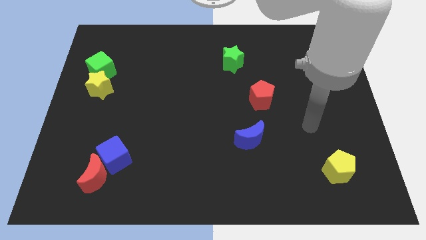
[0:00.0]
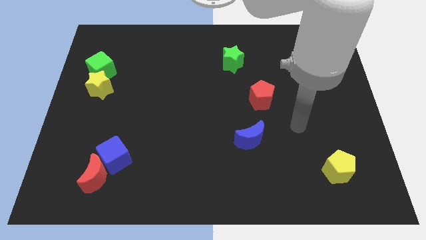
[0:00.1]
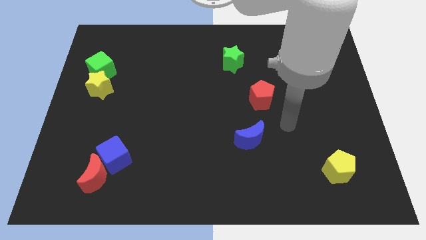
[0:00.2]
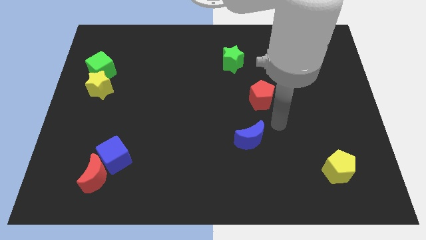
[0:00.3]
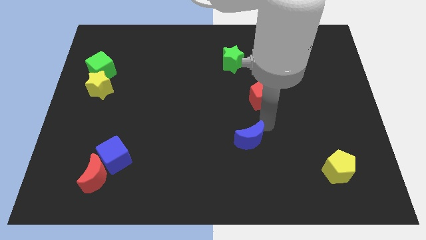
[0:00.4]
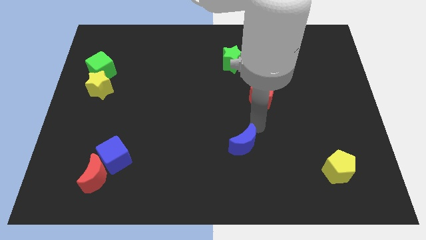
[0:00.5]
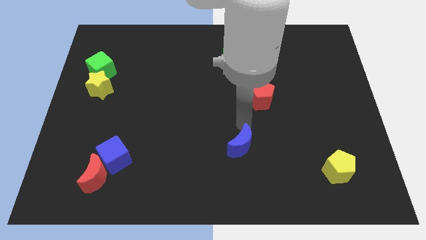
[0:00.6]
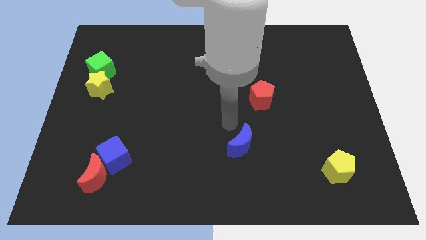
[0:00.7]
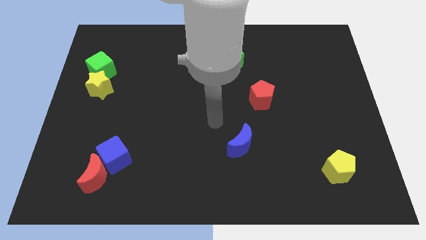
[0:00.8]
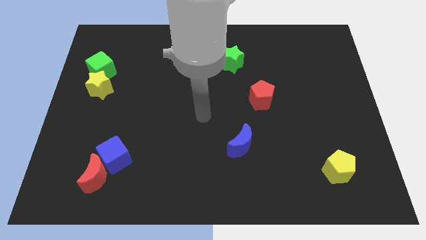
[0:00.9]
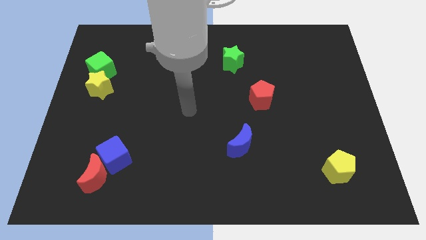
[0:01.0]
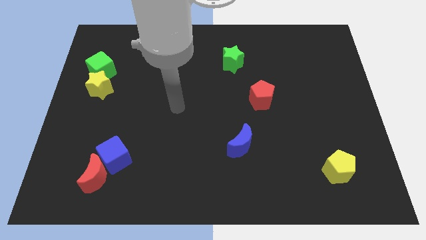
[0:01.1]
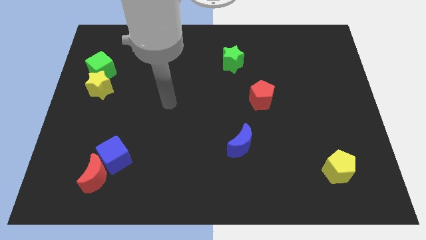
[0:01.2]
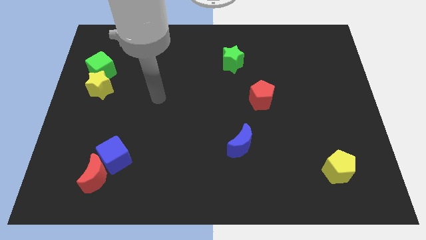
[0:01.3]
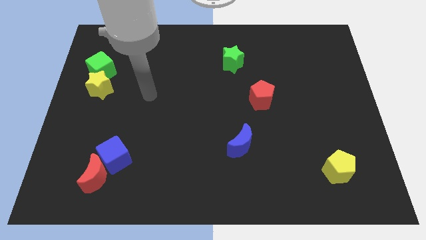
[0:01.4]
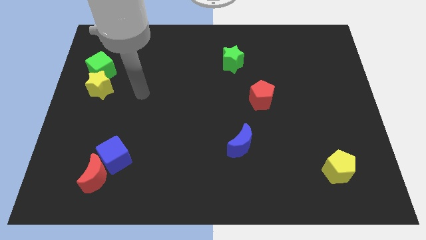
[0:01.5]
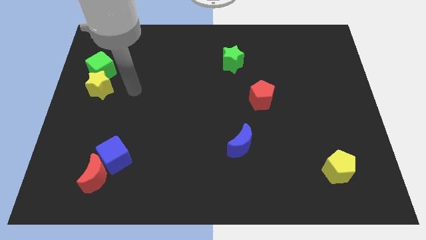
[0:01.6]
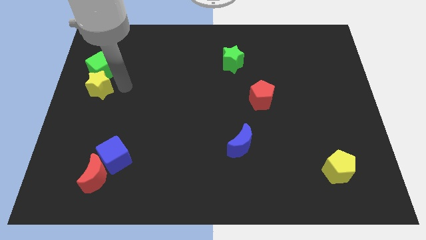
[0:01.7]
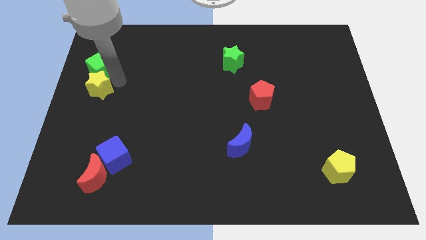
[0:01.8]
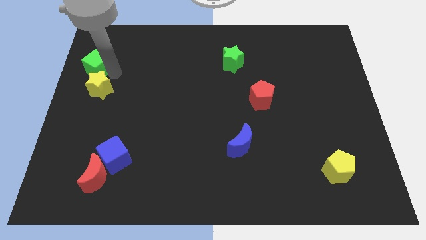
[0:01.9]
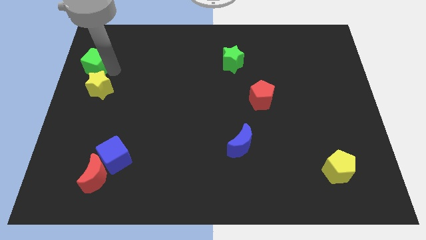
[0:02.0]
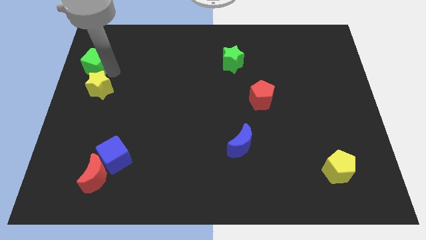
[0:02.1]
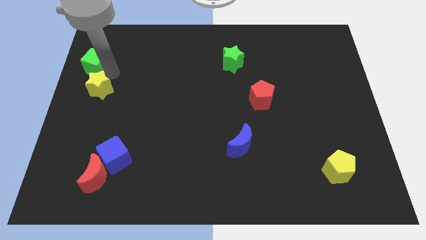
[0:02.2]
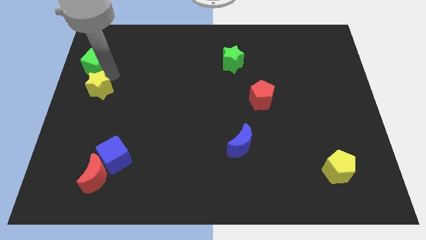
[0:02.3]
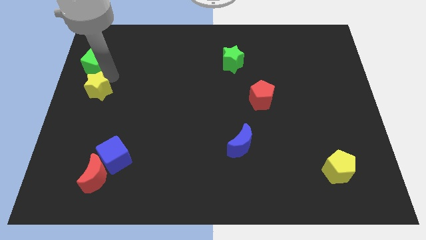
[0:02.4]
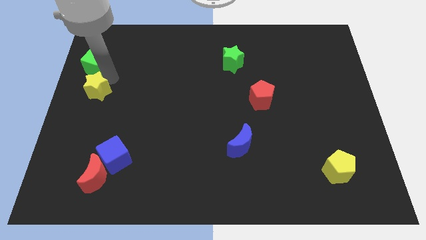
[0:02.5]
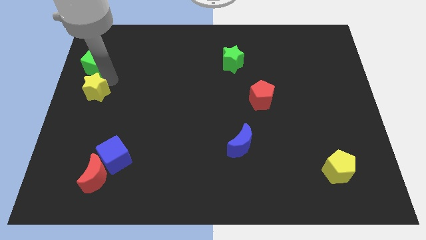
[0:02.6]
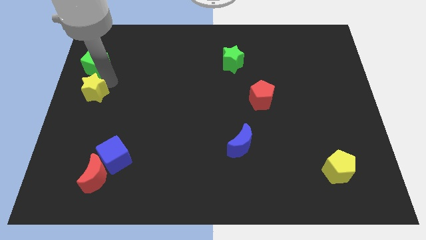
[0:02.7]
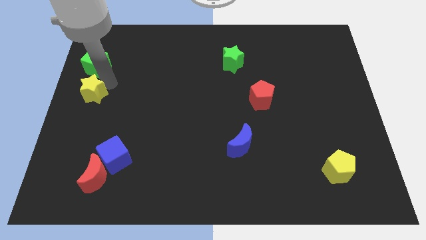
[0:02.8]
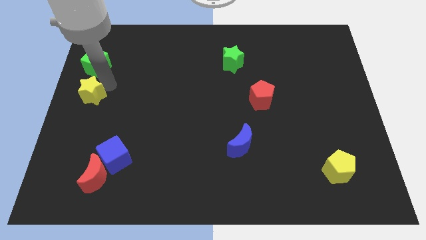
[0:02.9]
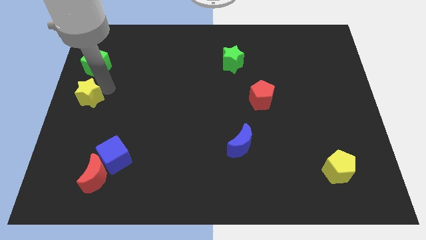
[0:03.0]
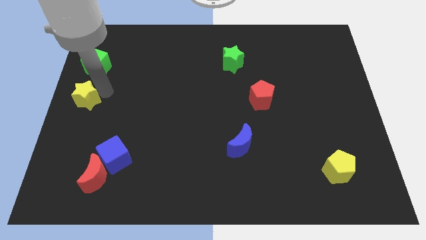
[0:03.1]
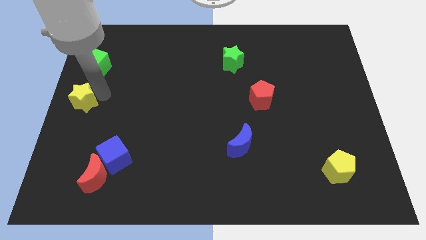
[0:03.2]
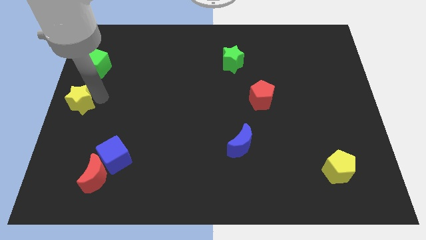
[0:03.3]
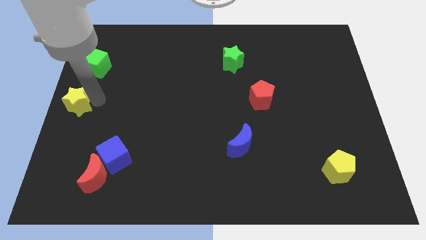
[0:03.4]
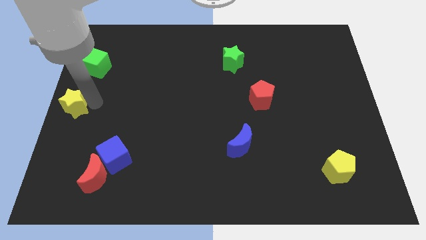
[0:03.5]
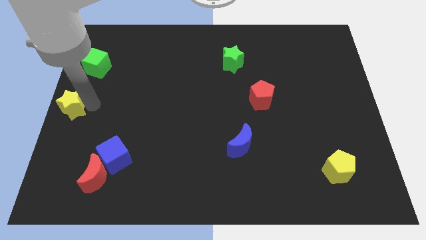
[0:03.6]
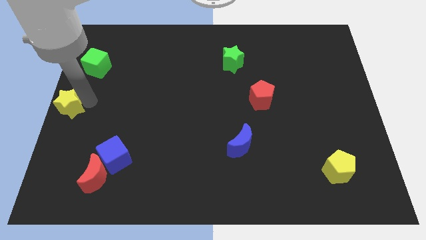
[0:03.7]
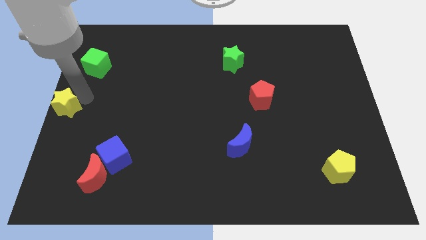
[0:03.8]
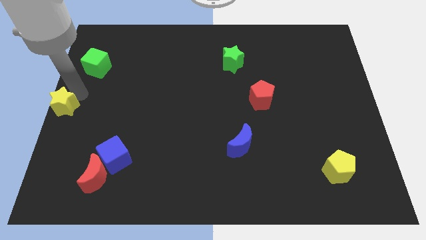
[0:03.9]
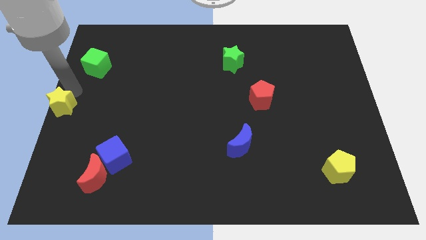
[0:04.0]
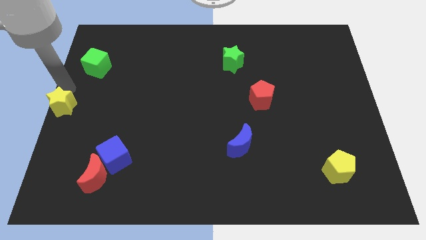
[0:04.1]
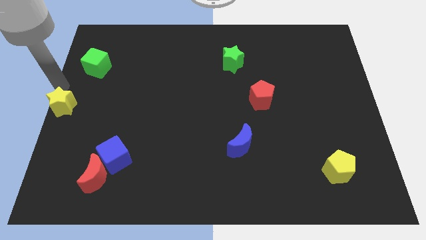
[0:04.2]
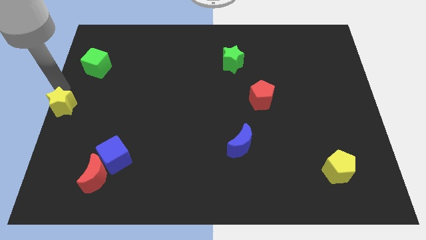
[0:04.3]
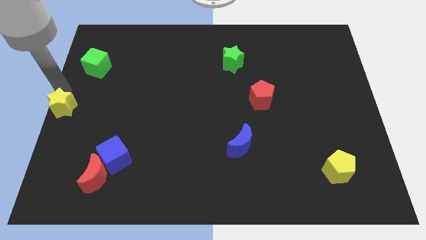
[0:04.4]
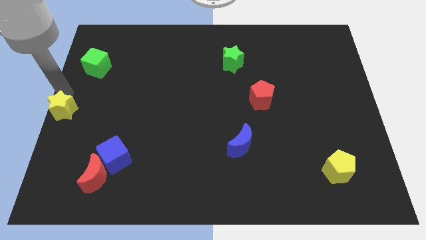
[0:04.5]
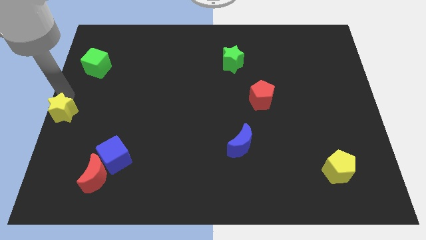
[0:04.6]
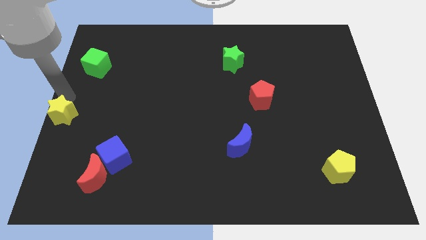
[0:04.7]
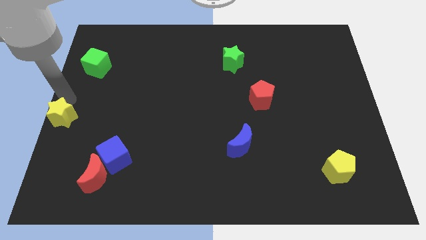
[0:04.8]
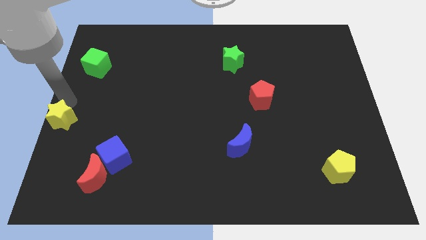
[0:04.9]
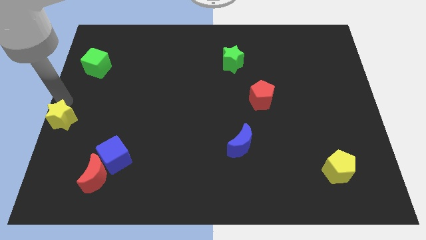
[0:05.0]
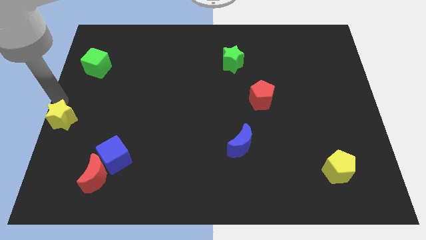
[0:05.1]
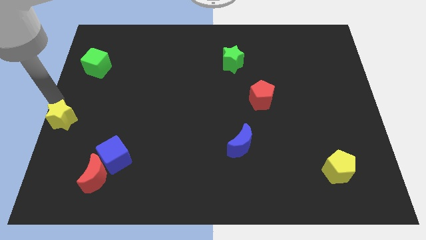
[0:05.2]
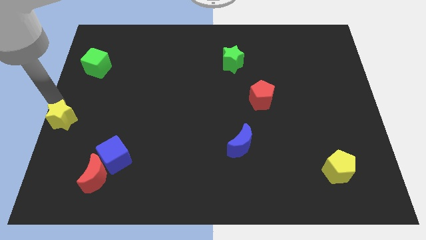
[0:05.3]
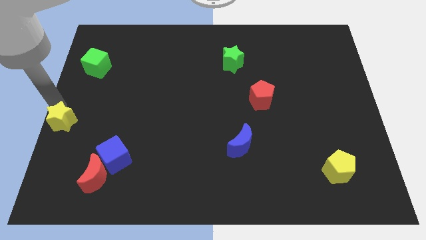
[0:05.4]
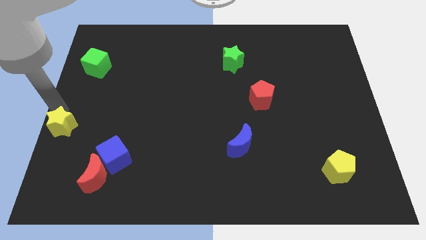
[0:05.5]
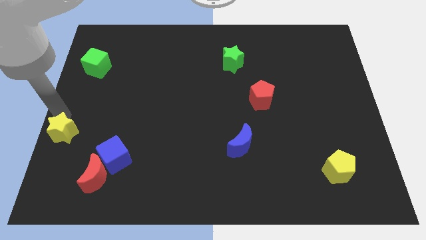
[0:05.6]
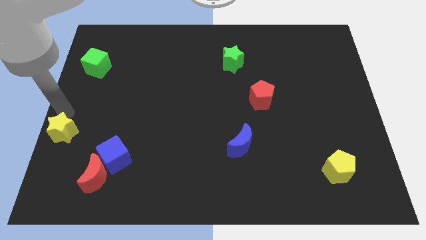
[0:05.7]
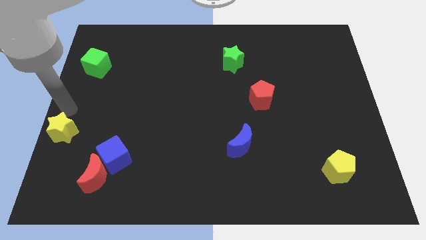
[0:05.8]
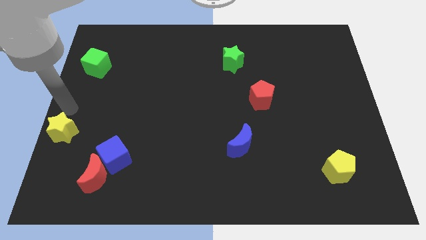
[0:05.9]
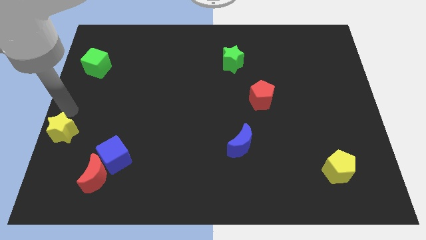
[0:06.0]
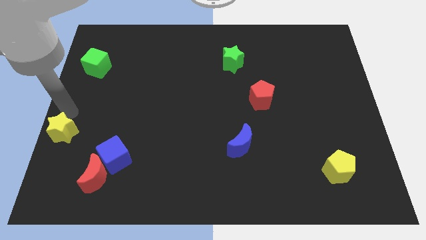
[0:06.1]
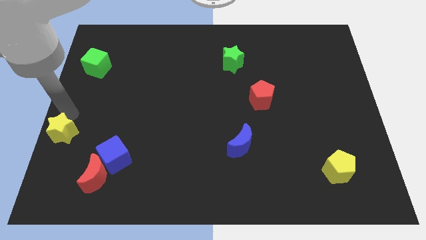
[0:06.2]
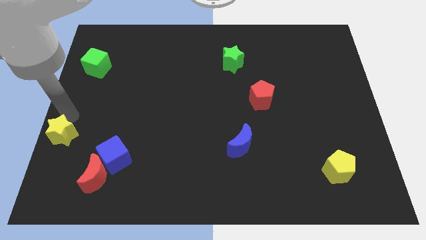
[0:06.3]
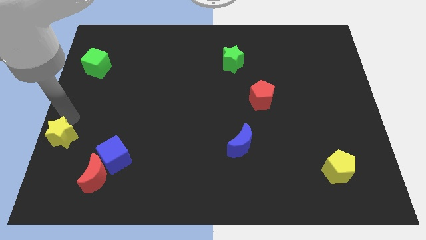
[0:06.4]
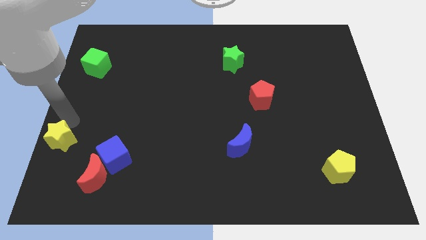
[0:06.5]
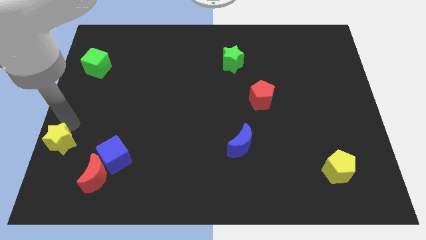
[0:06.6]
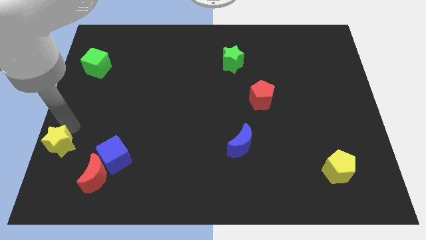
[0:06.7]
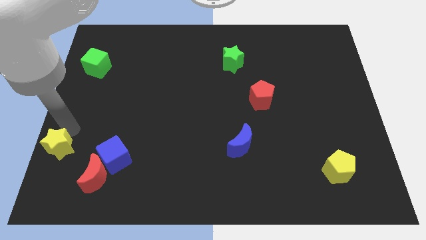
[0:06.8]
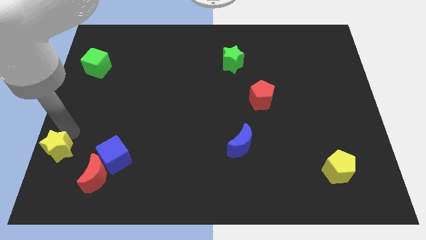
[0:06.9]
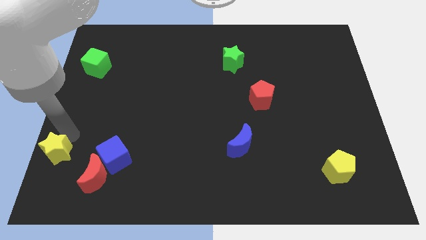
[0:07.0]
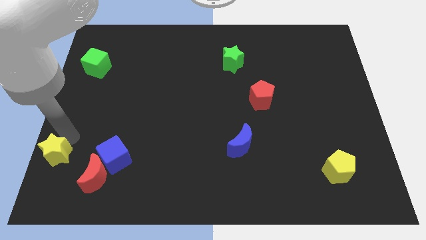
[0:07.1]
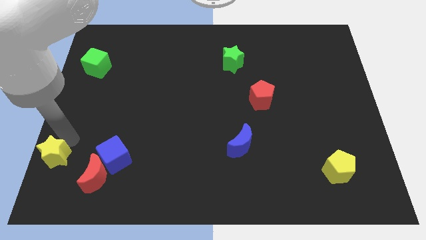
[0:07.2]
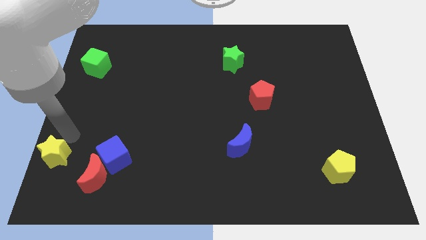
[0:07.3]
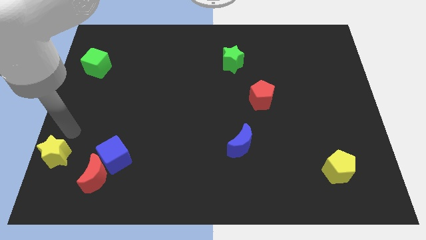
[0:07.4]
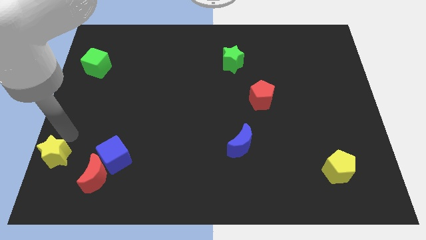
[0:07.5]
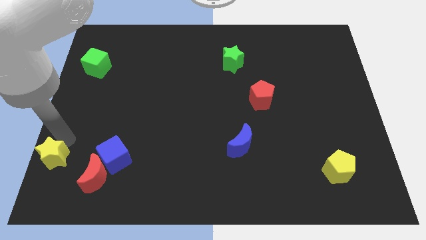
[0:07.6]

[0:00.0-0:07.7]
put the yellow star to the bottom left of the board
